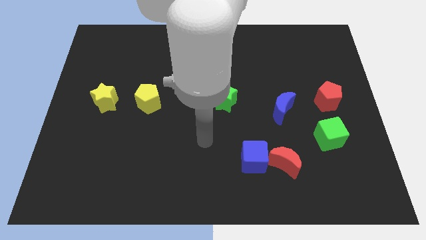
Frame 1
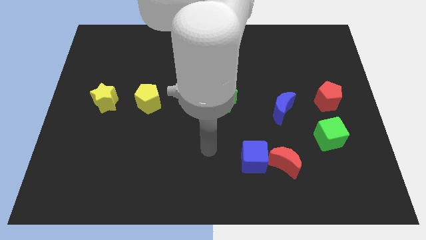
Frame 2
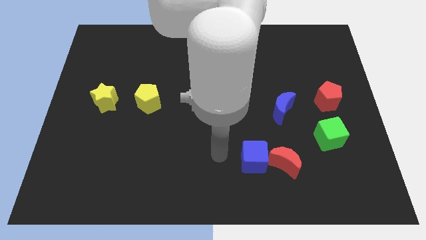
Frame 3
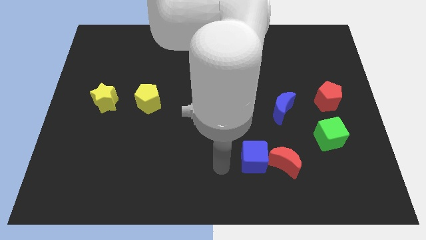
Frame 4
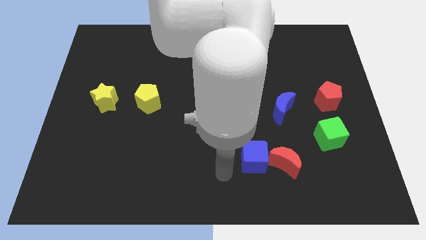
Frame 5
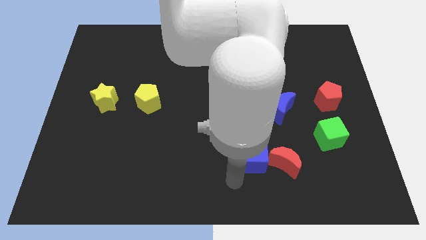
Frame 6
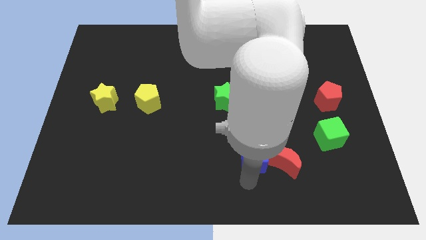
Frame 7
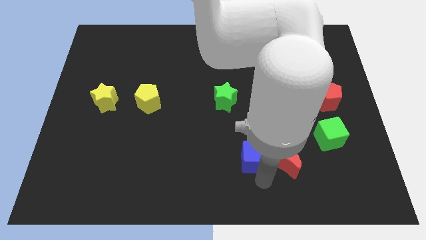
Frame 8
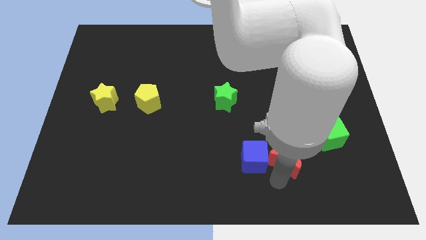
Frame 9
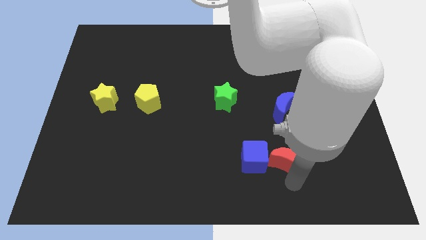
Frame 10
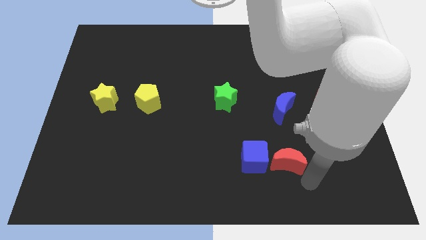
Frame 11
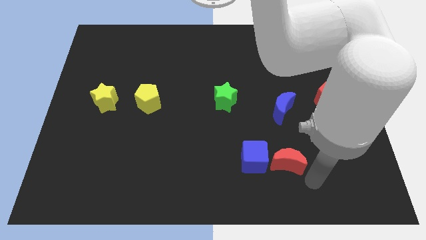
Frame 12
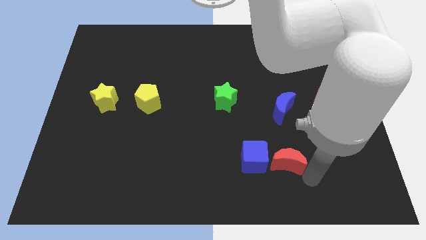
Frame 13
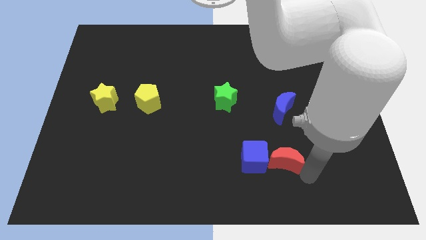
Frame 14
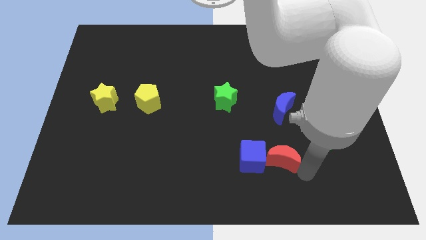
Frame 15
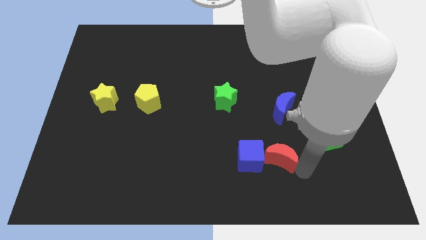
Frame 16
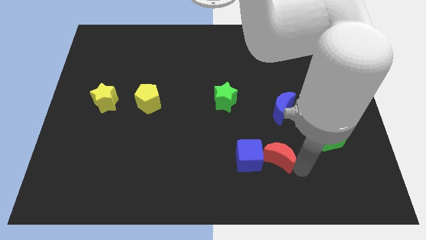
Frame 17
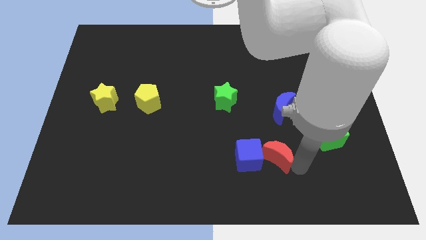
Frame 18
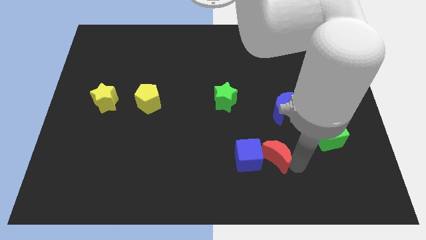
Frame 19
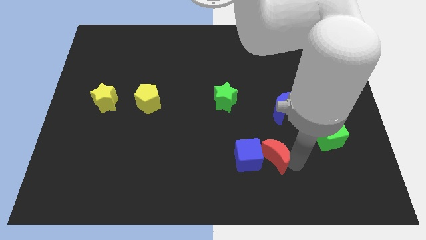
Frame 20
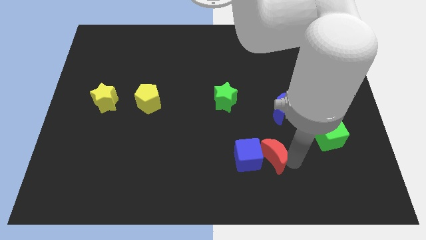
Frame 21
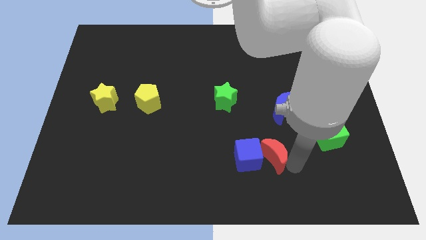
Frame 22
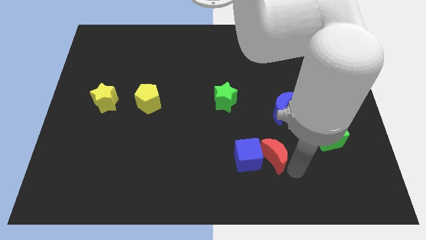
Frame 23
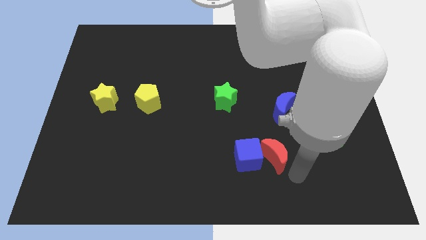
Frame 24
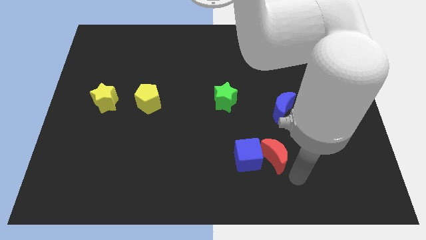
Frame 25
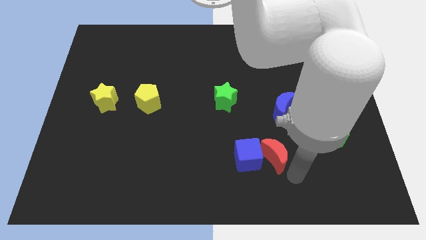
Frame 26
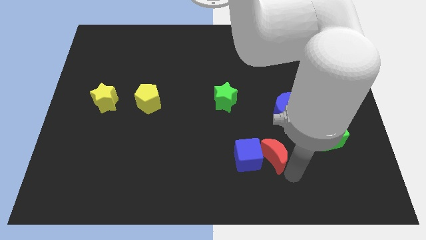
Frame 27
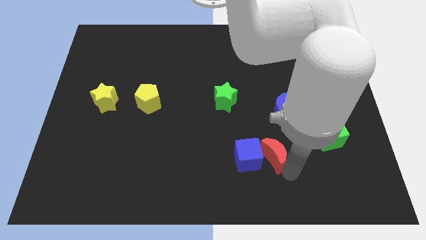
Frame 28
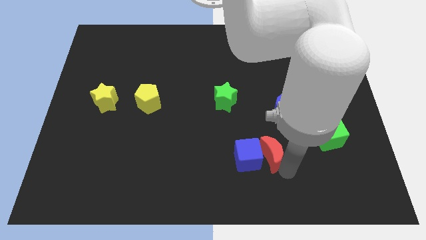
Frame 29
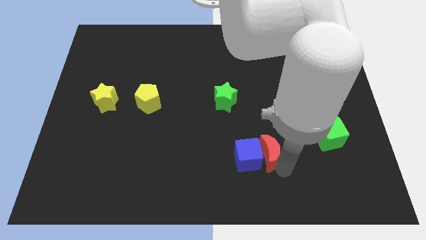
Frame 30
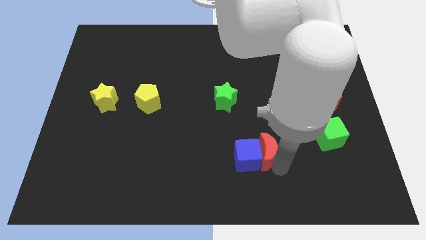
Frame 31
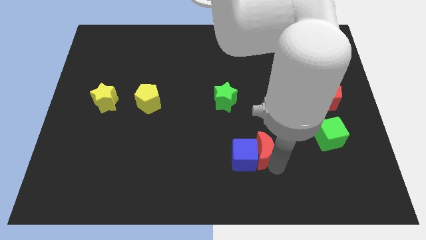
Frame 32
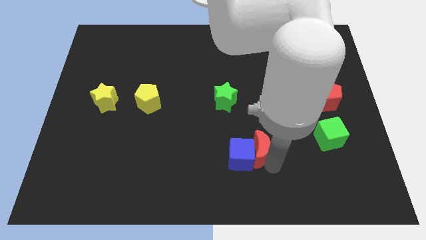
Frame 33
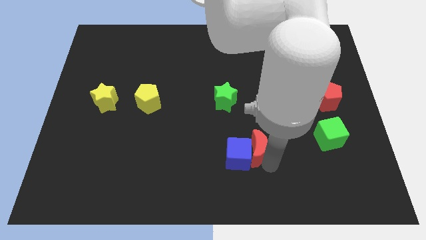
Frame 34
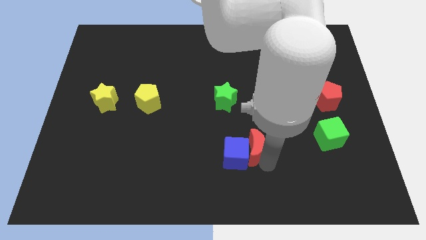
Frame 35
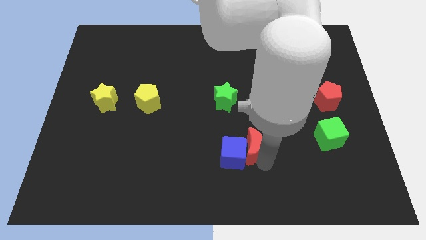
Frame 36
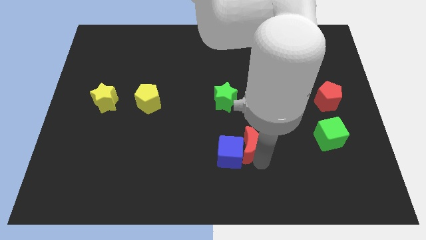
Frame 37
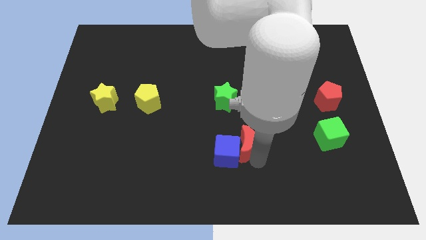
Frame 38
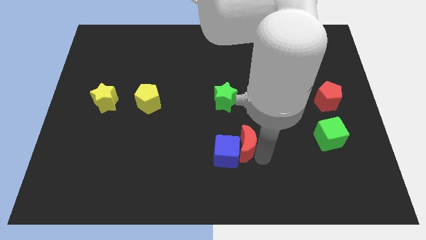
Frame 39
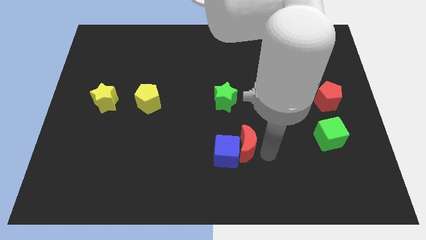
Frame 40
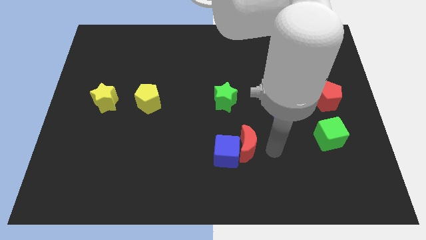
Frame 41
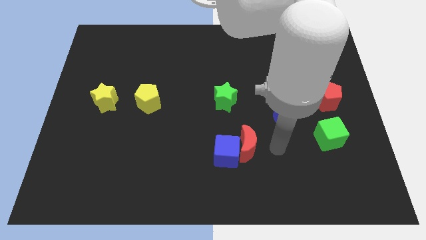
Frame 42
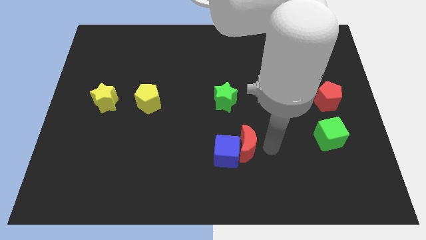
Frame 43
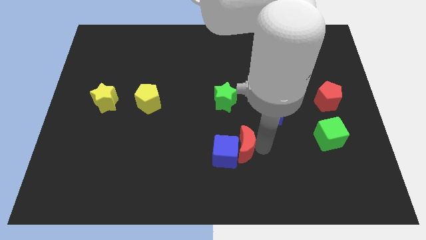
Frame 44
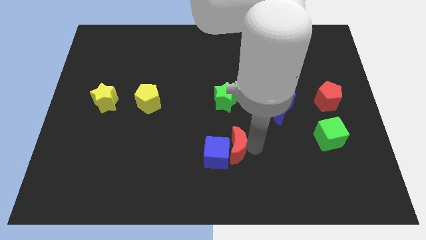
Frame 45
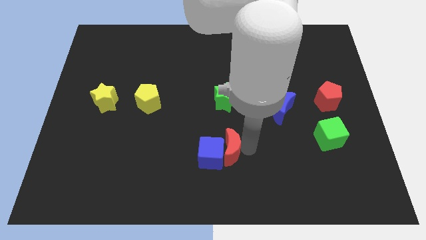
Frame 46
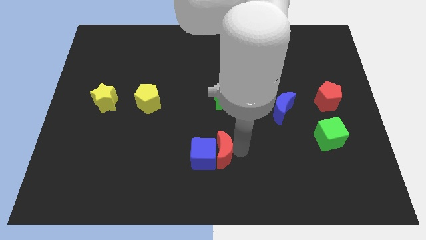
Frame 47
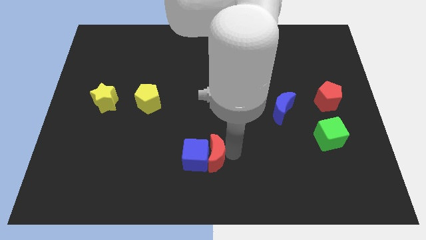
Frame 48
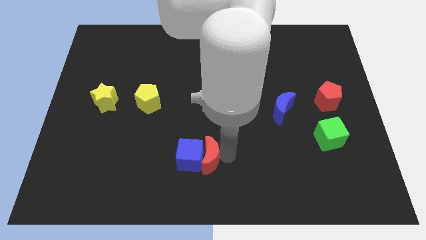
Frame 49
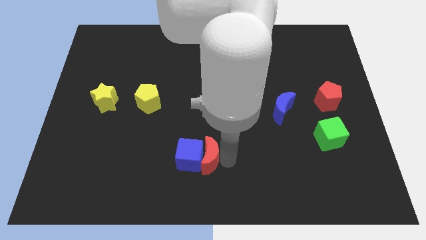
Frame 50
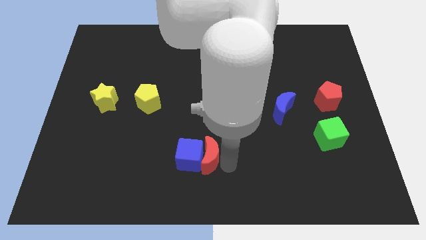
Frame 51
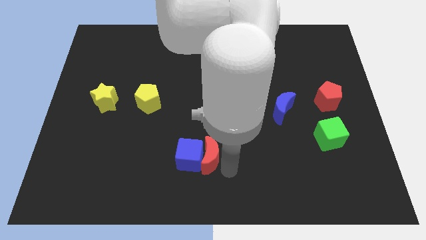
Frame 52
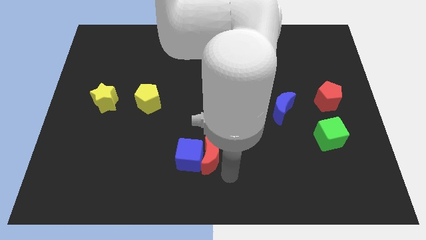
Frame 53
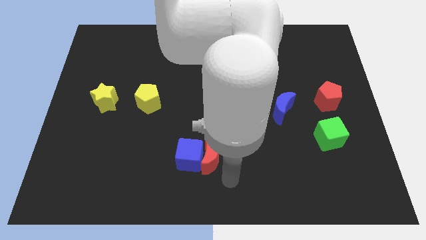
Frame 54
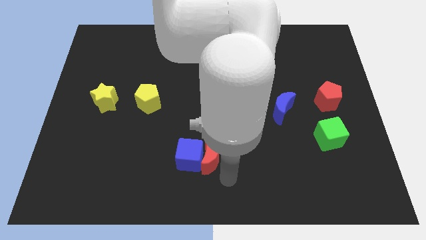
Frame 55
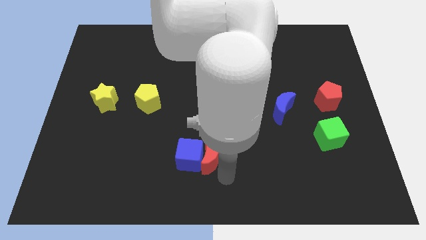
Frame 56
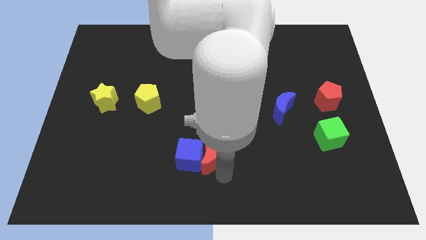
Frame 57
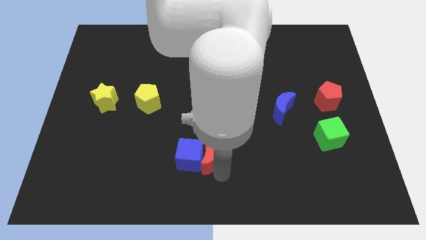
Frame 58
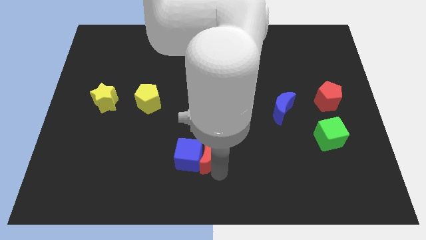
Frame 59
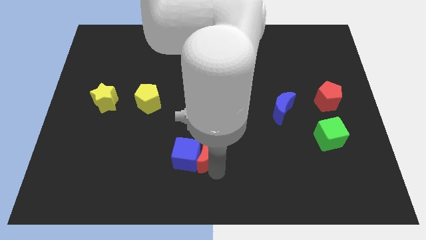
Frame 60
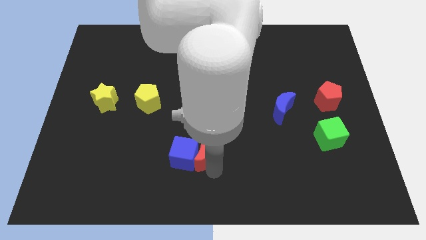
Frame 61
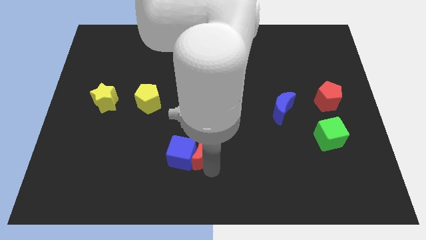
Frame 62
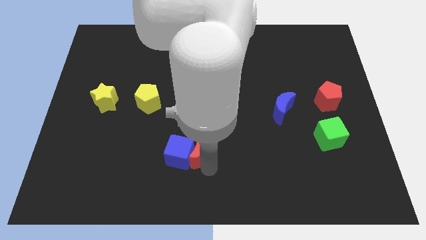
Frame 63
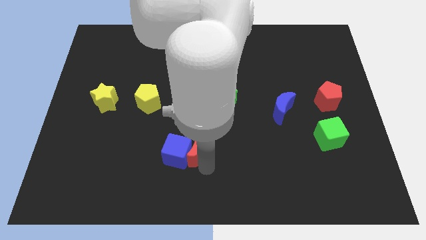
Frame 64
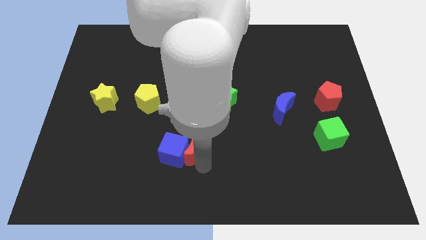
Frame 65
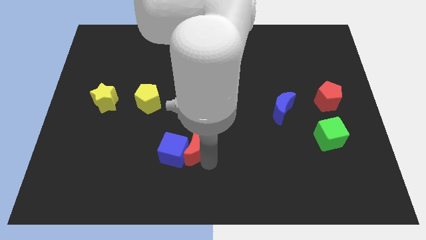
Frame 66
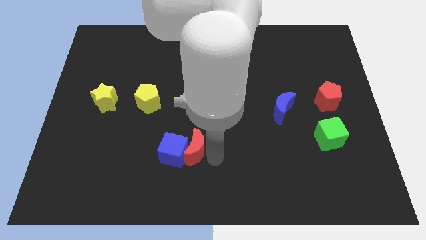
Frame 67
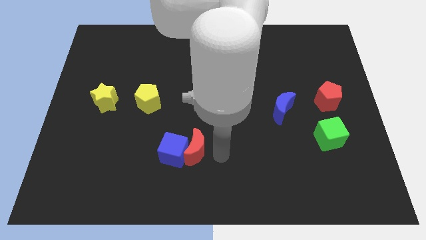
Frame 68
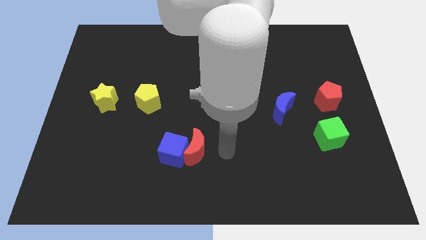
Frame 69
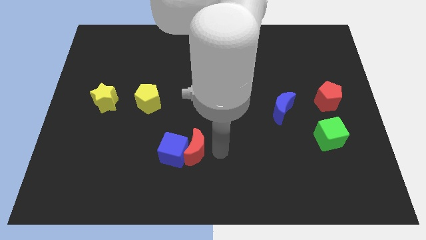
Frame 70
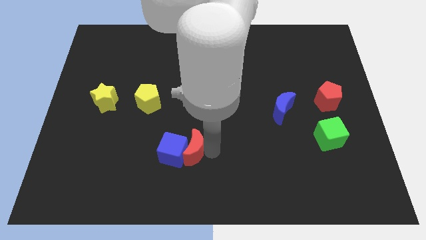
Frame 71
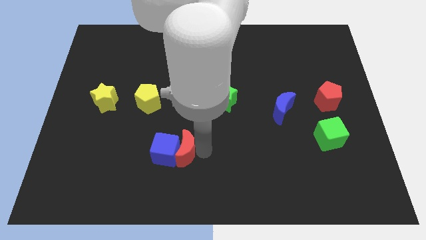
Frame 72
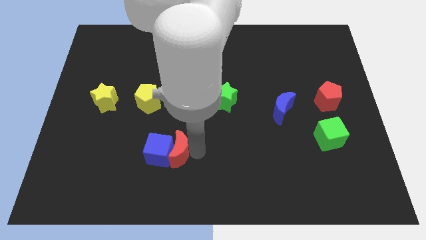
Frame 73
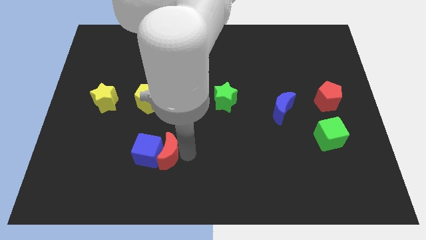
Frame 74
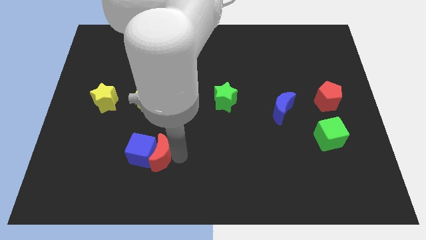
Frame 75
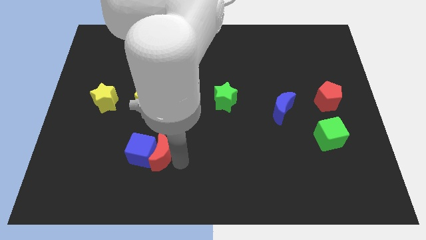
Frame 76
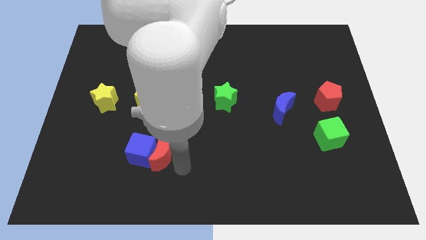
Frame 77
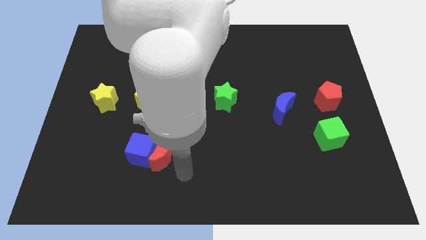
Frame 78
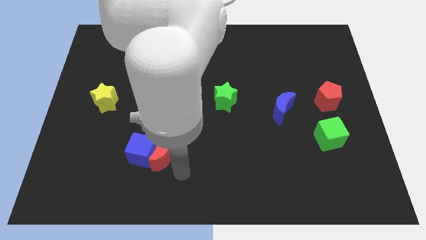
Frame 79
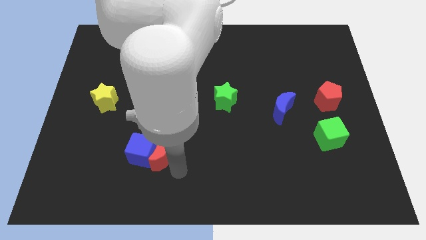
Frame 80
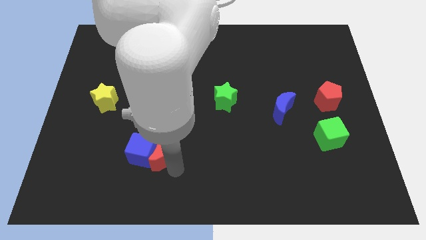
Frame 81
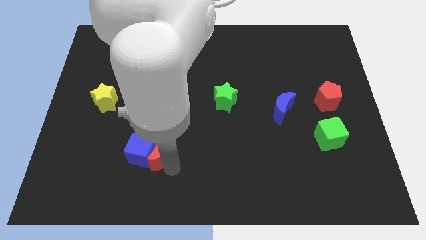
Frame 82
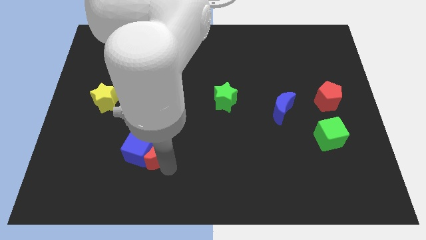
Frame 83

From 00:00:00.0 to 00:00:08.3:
slide the red moon below the yellow pentagon
